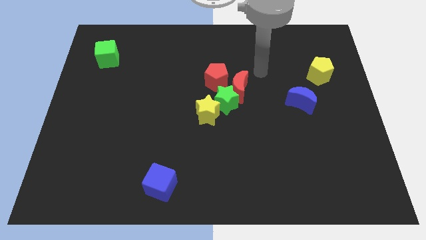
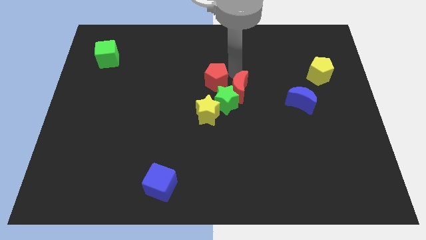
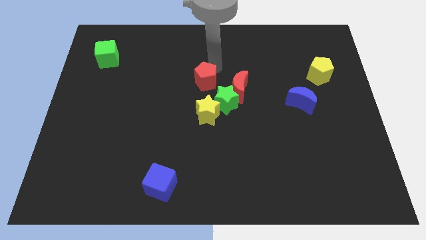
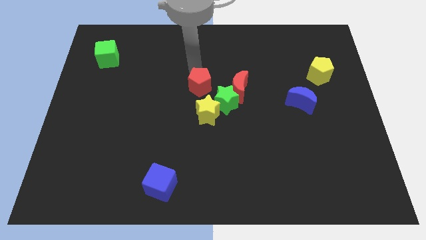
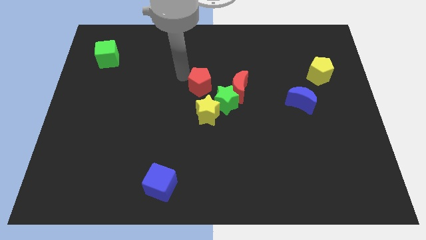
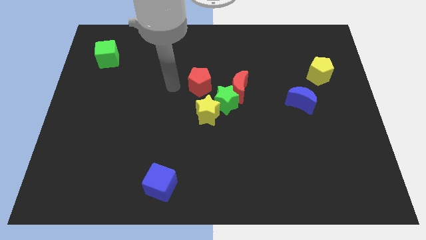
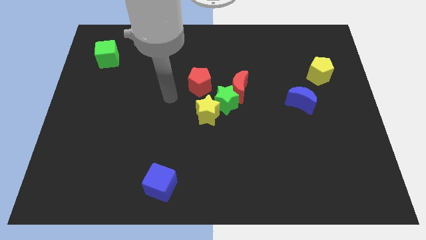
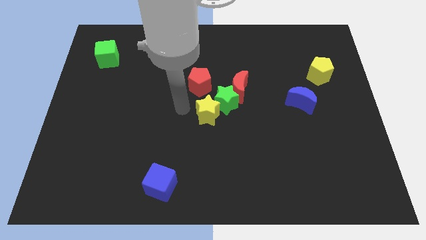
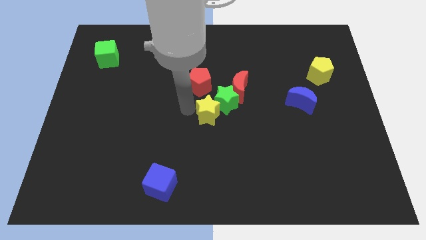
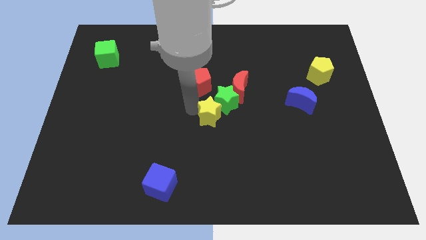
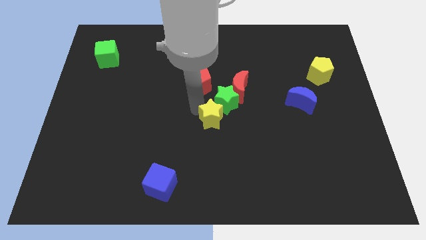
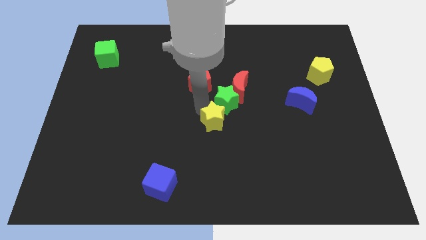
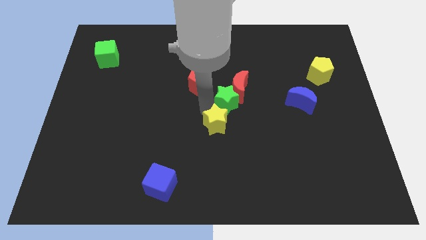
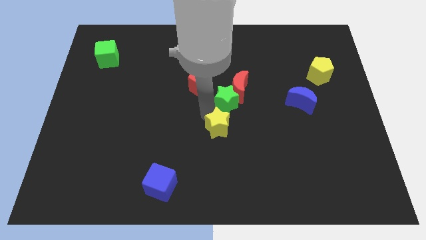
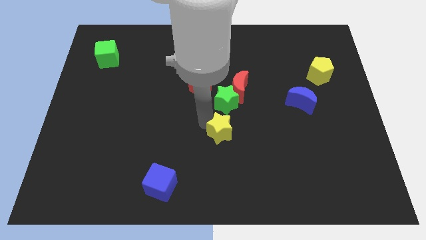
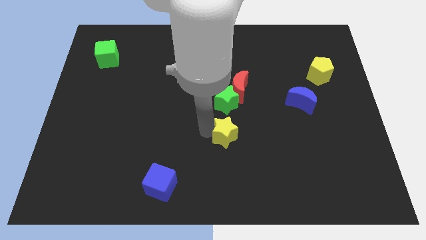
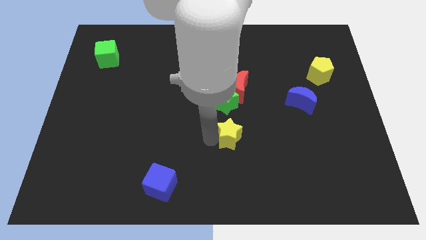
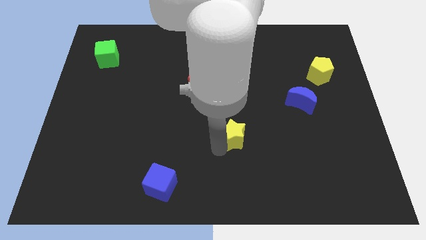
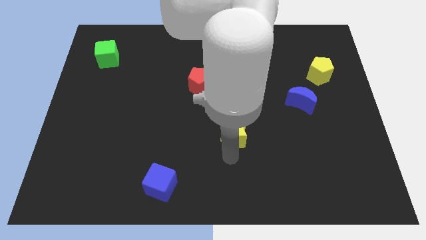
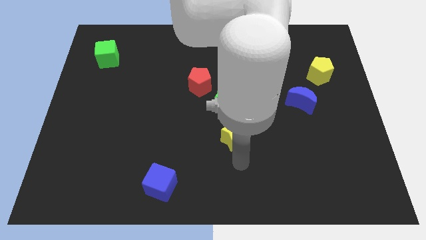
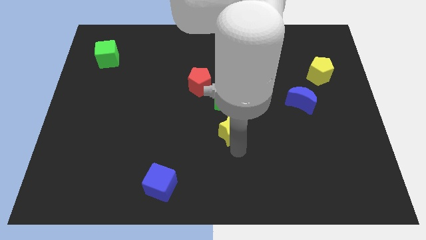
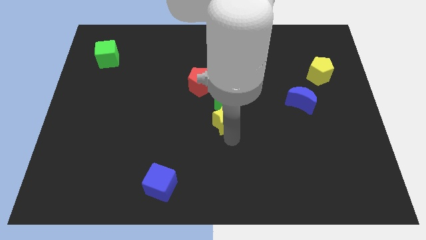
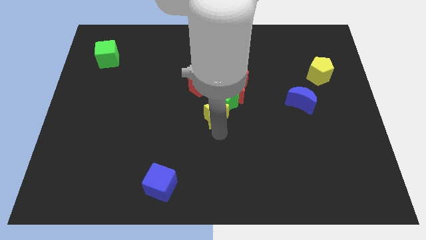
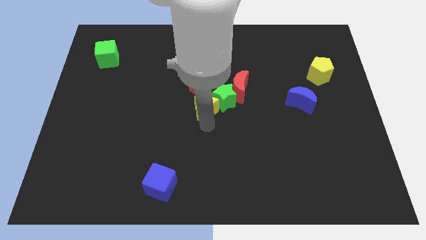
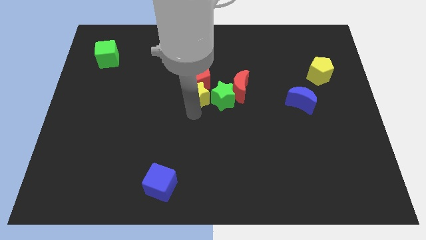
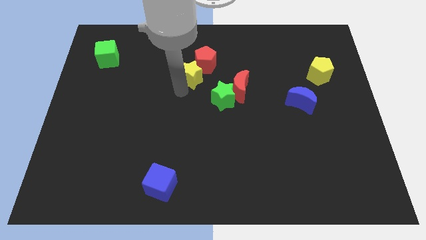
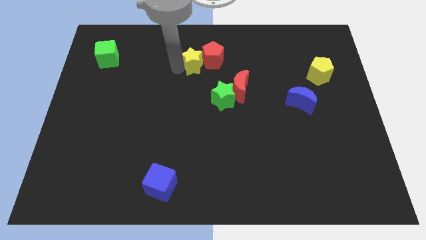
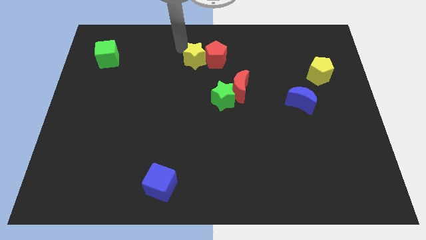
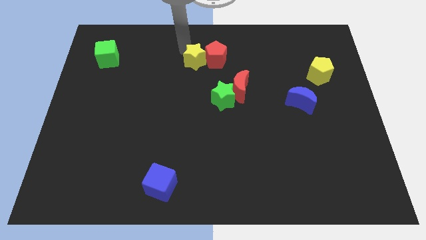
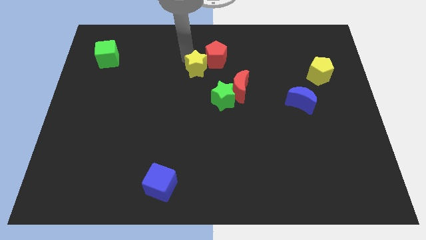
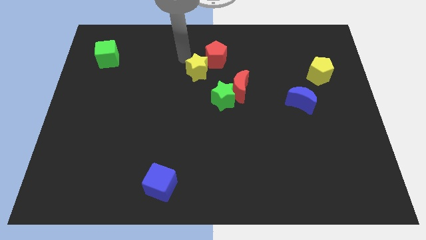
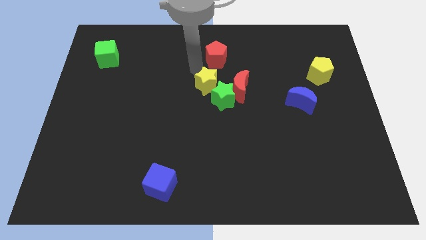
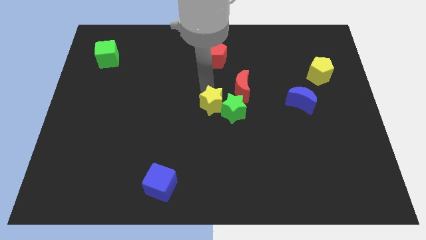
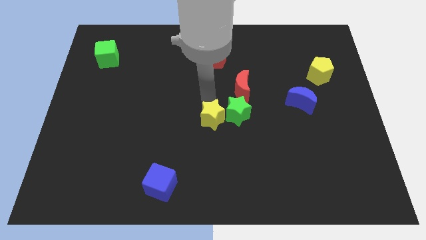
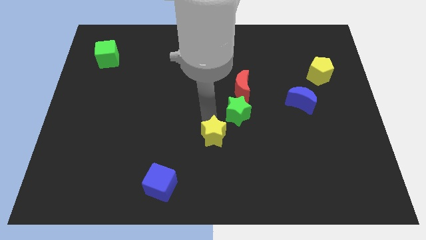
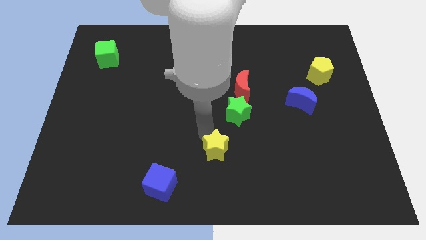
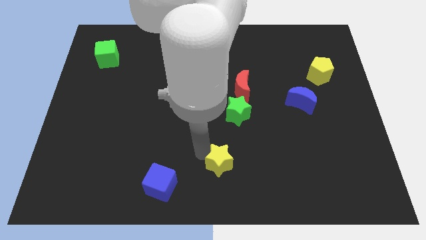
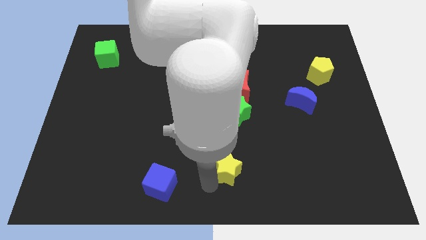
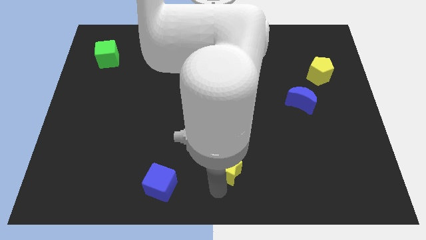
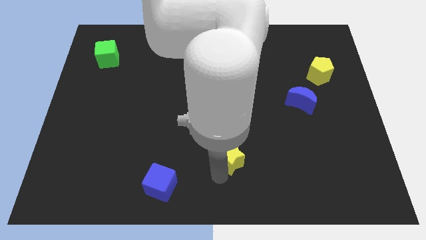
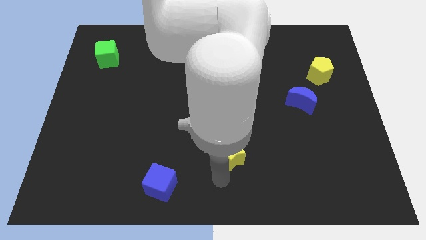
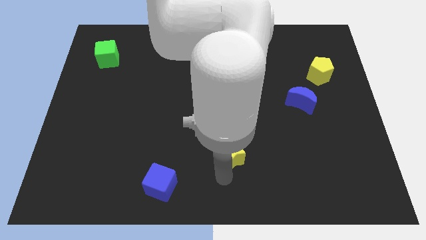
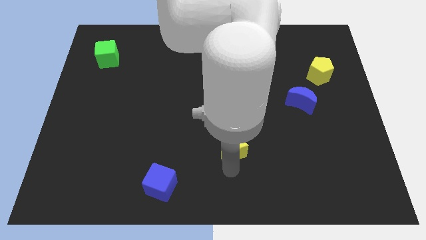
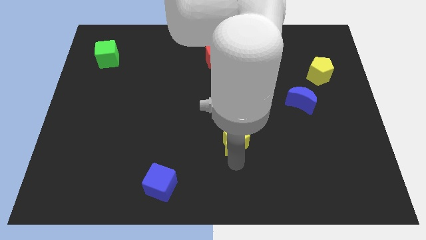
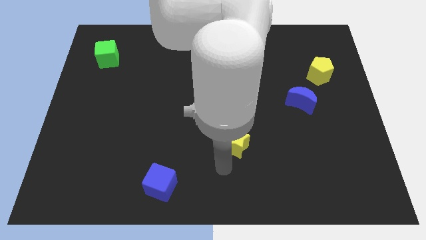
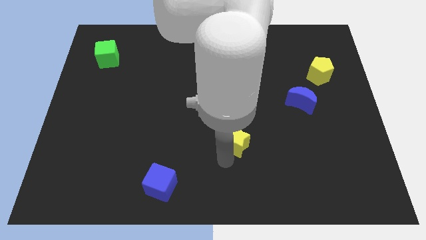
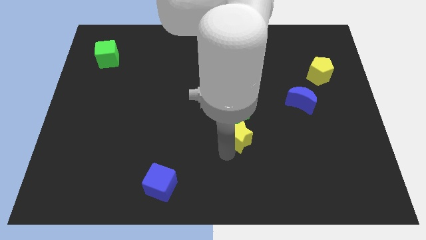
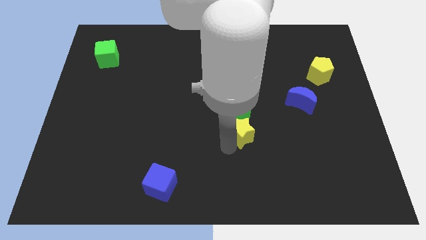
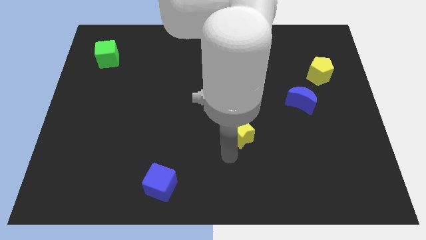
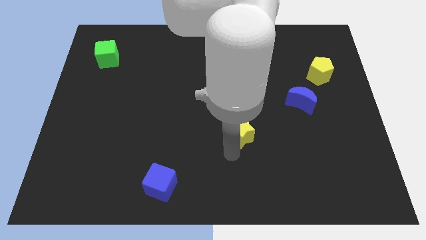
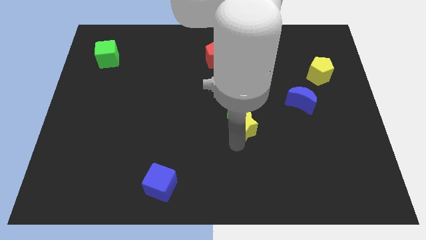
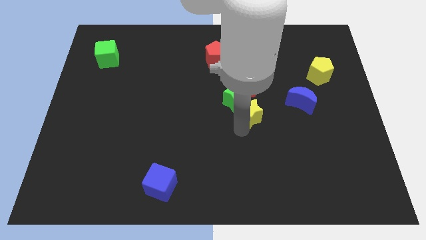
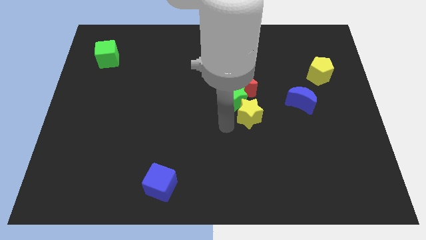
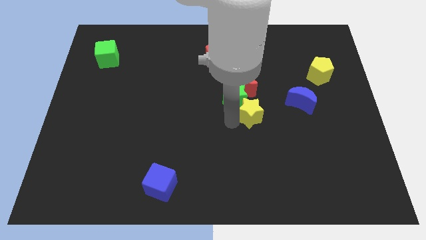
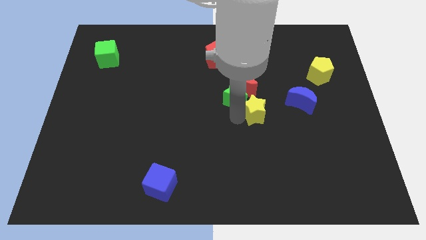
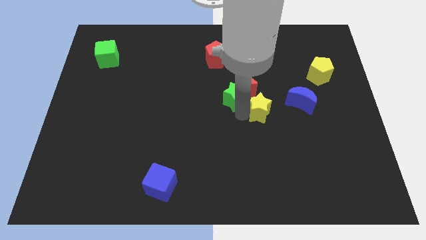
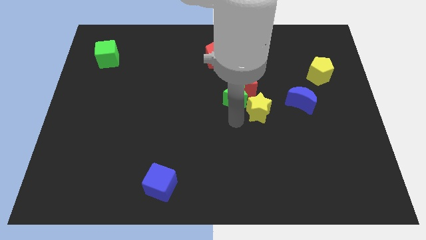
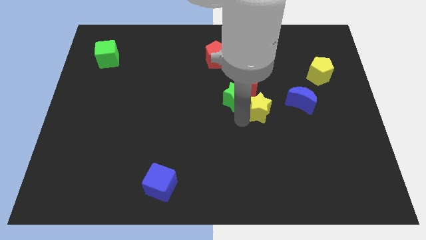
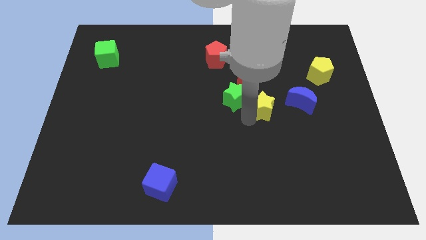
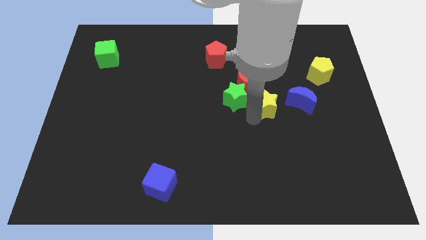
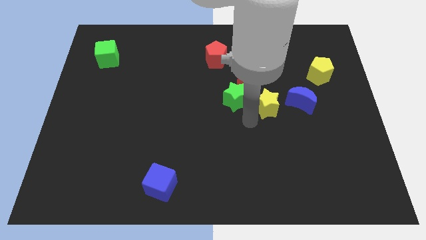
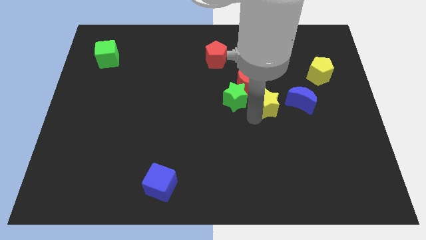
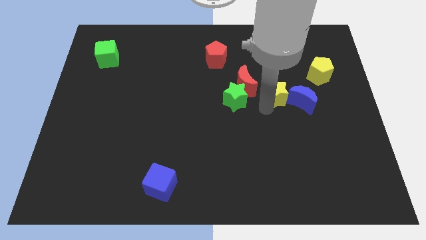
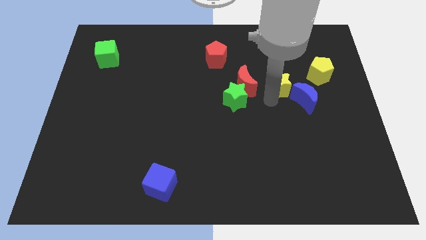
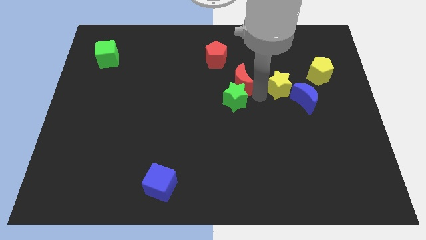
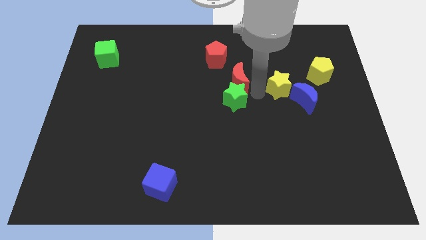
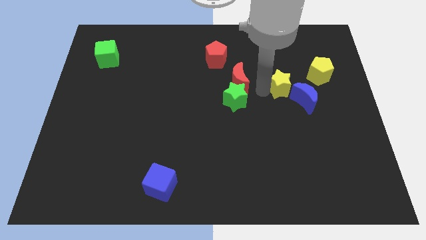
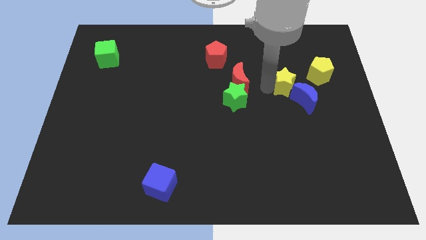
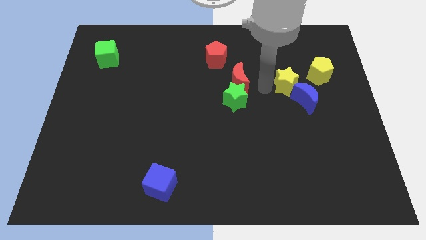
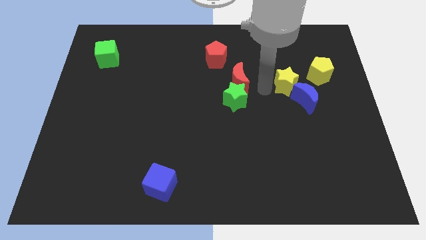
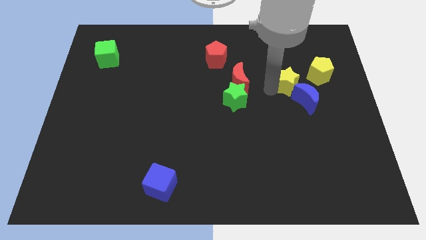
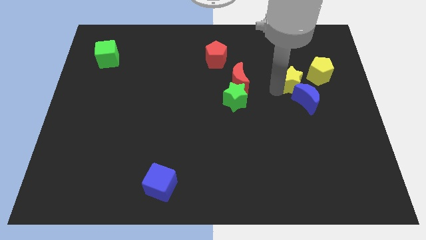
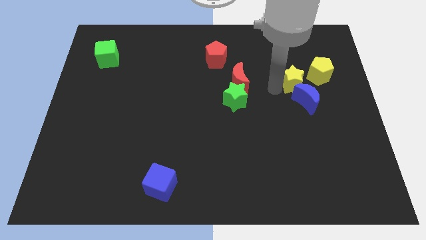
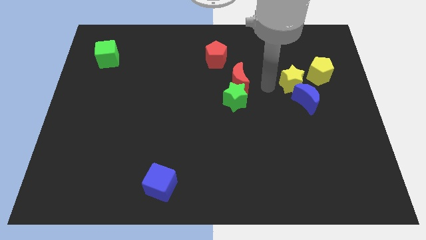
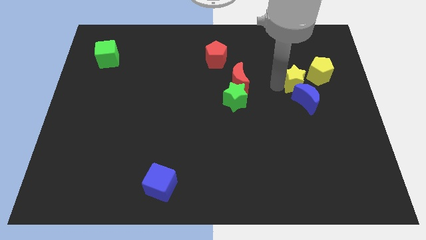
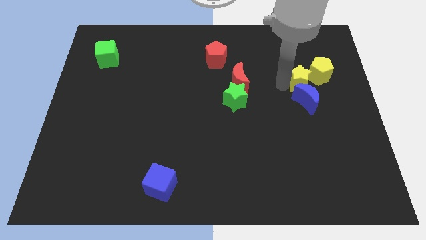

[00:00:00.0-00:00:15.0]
move the yellow star close to the yellow pentagon
